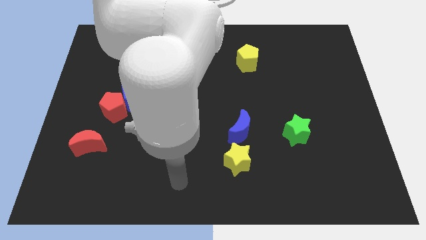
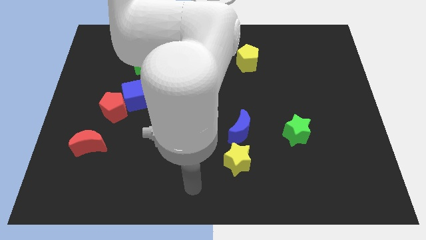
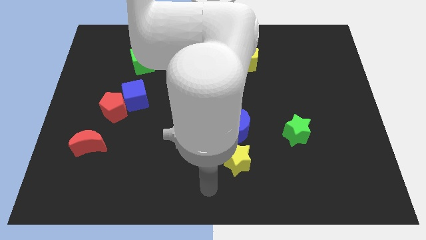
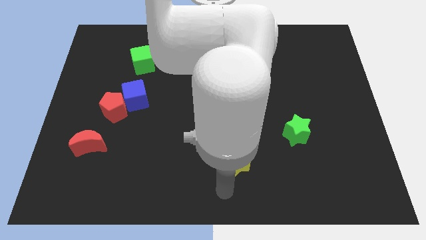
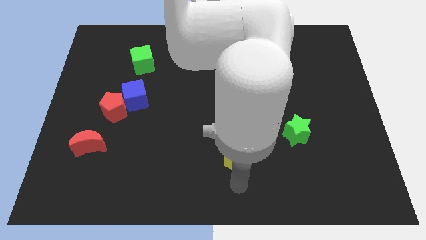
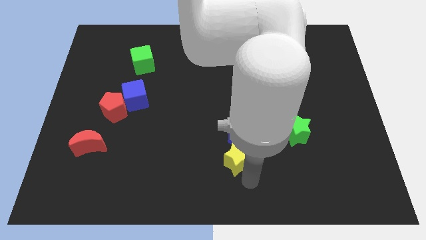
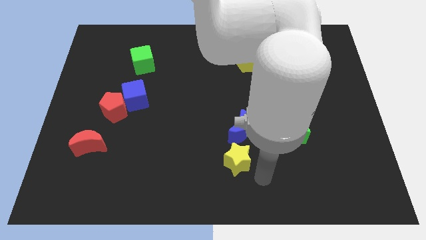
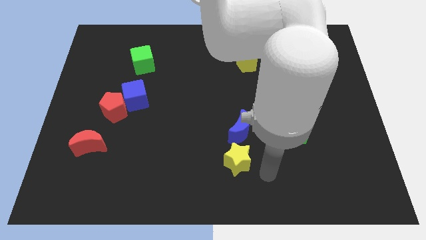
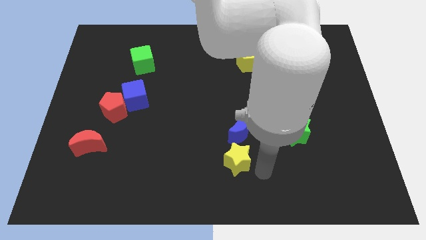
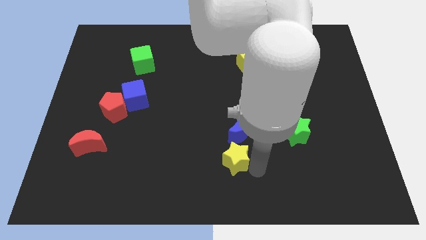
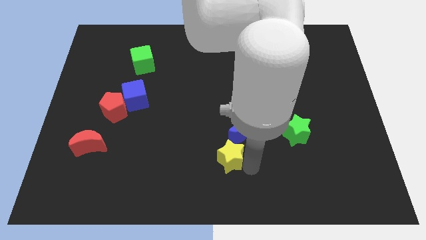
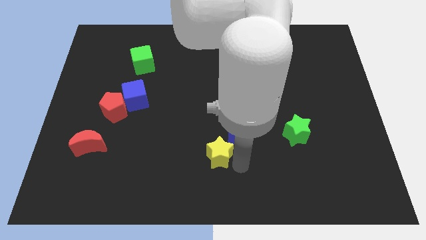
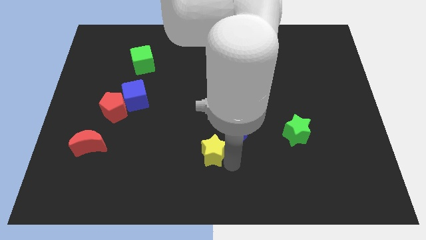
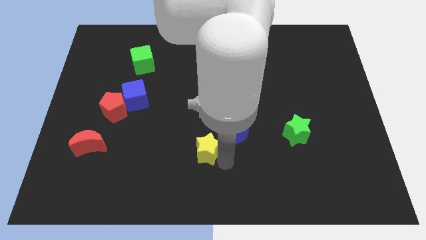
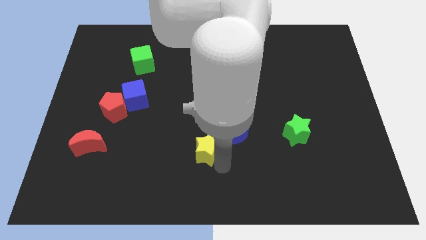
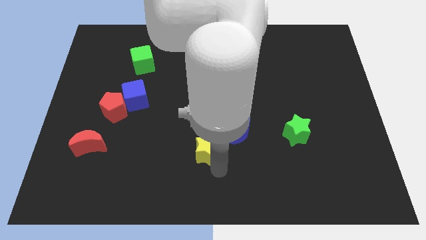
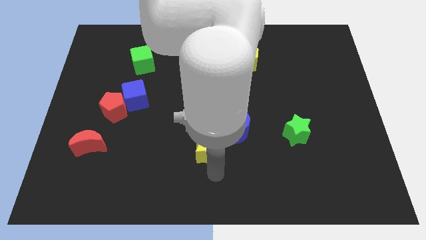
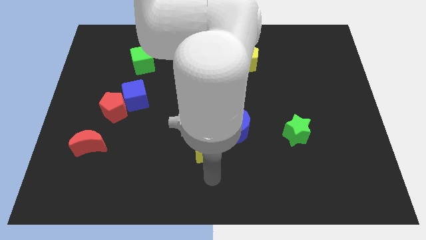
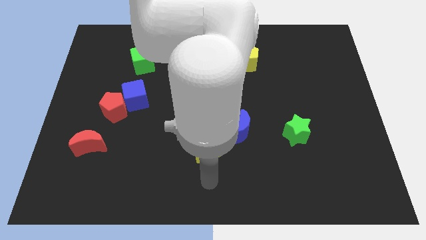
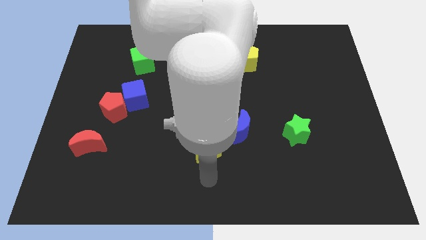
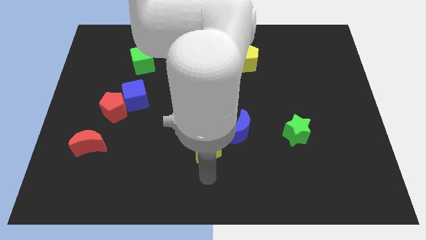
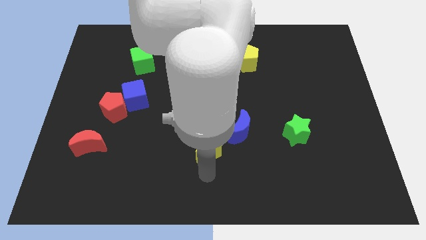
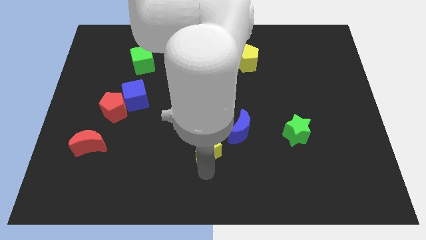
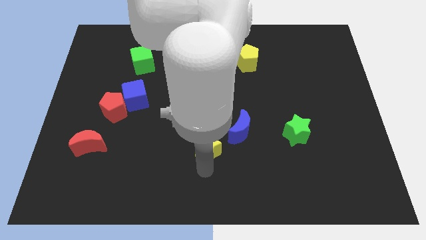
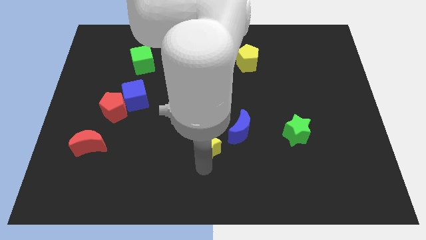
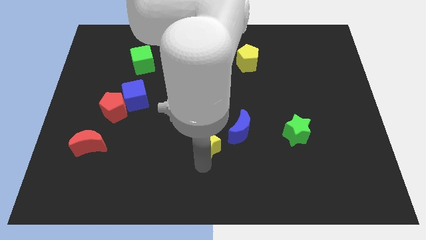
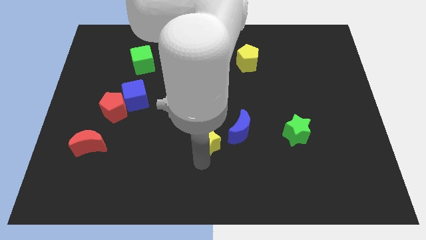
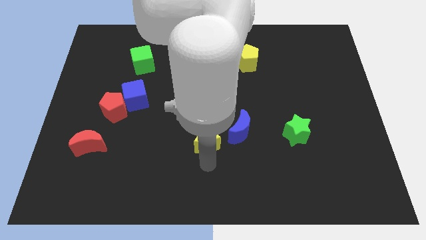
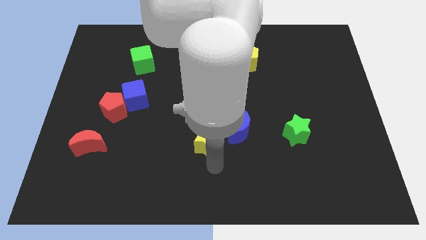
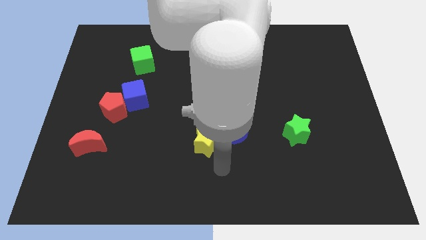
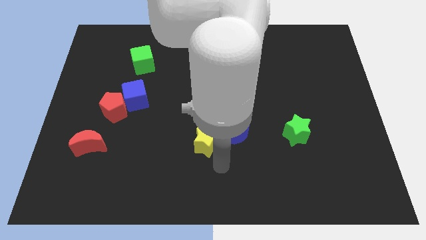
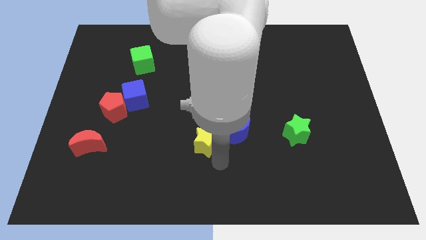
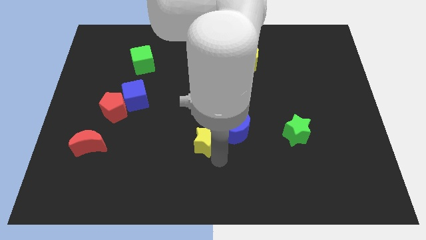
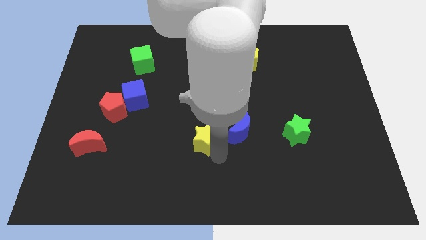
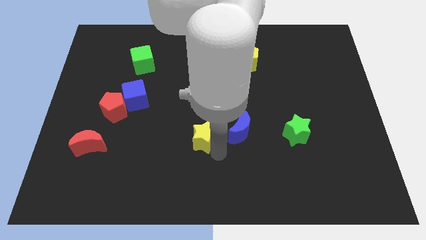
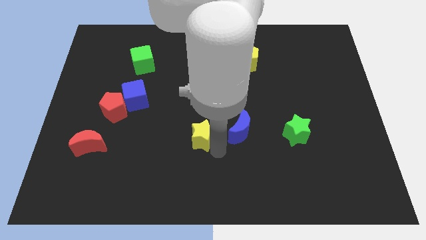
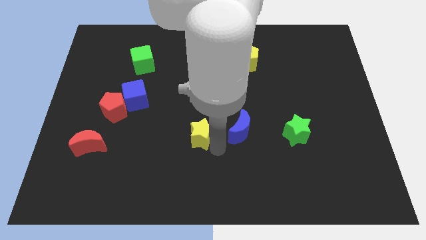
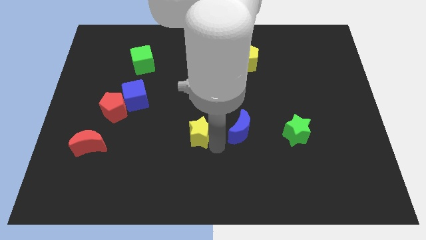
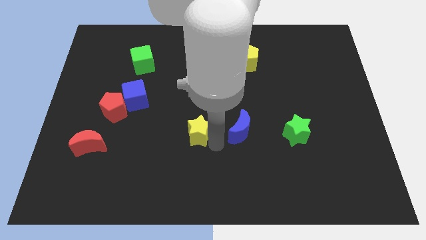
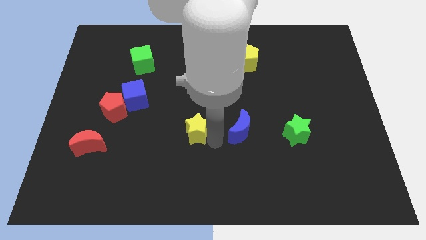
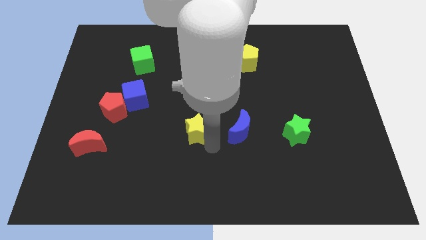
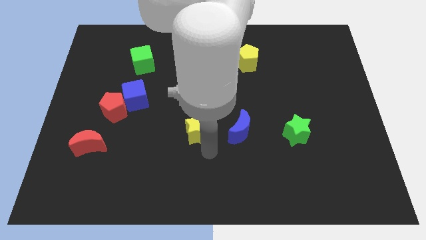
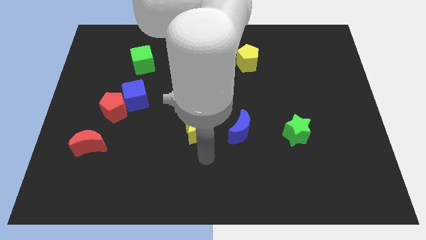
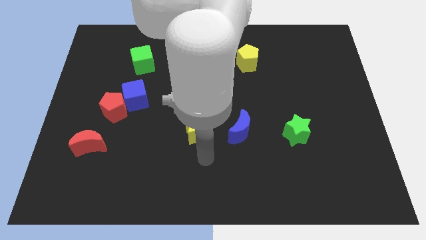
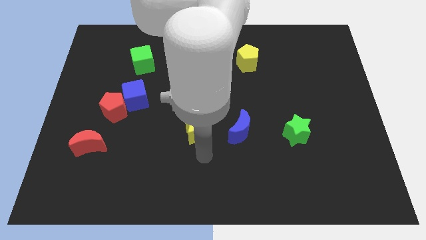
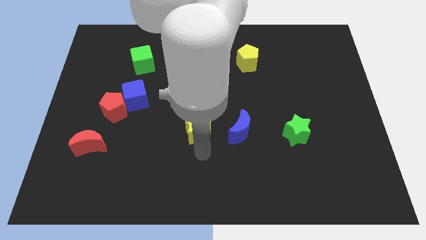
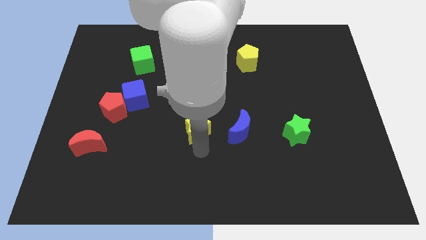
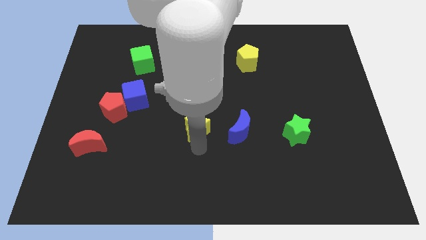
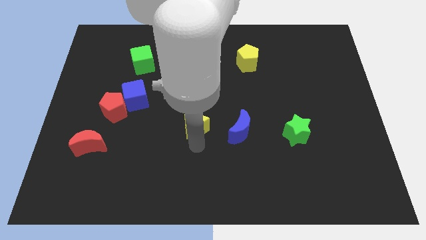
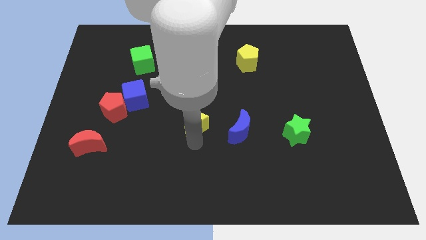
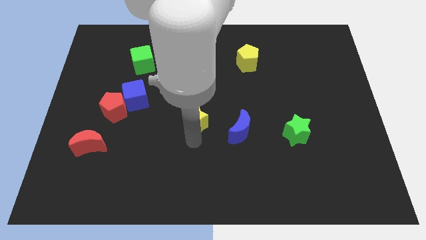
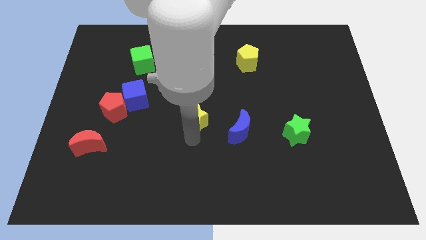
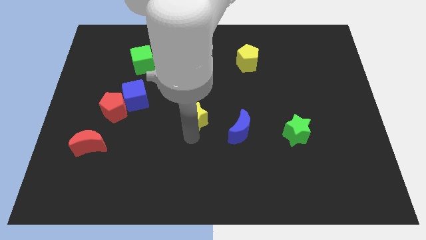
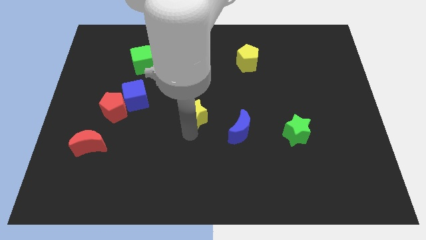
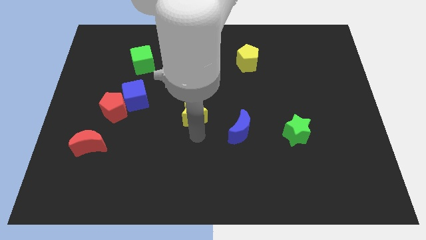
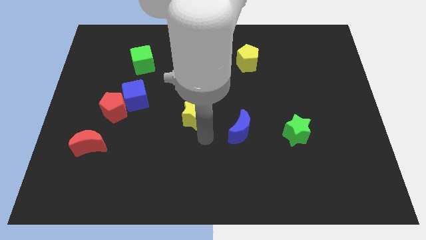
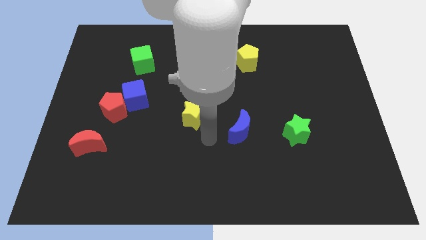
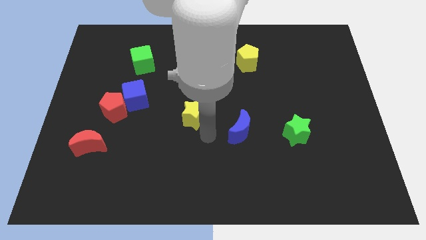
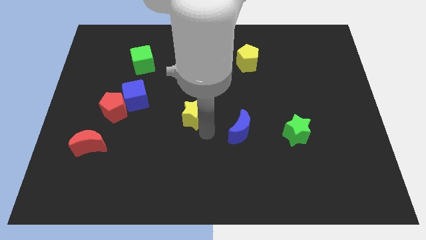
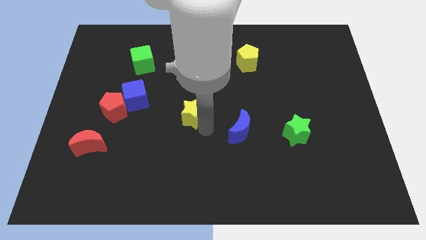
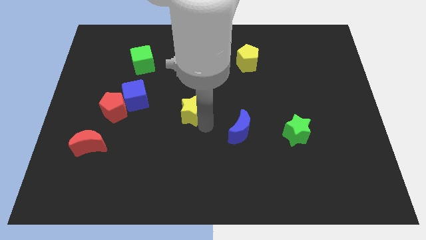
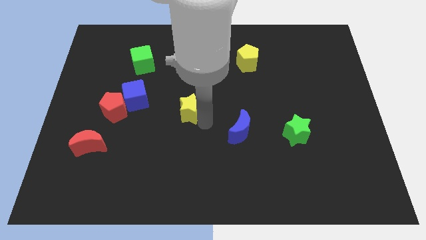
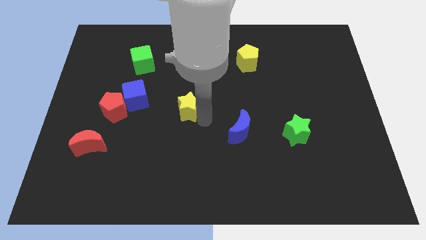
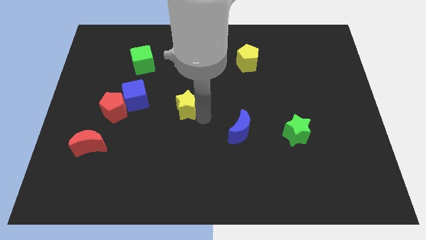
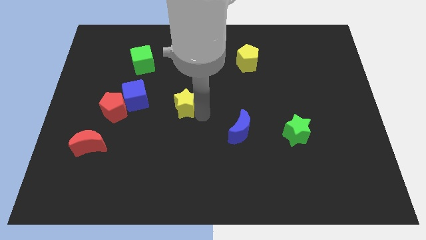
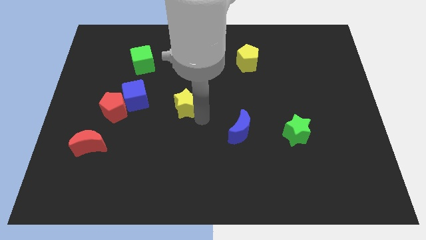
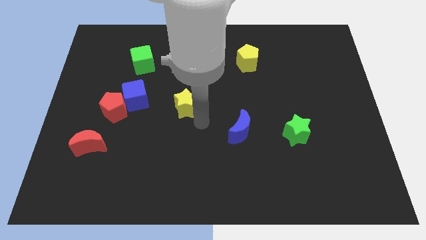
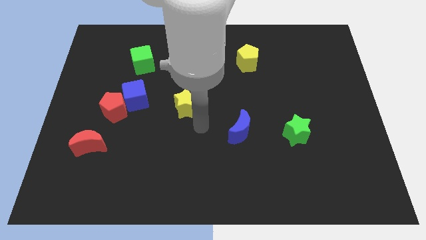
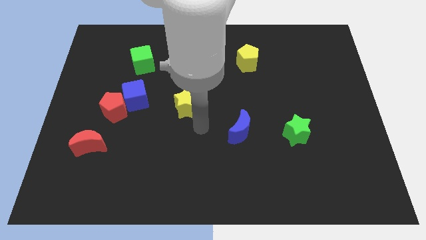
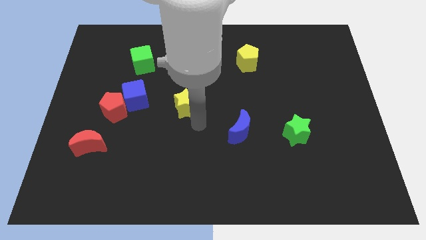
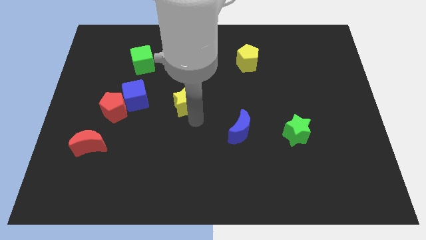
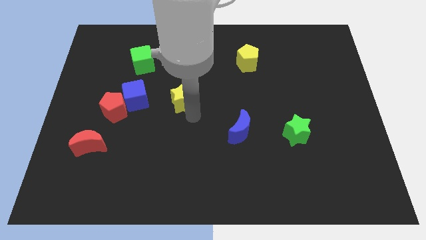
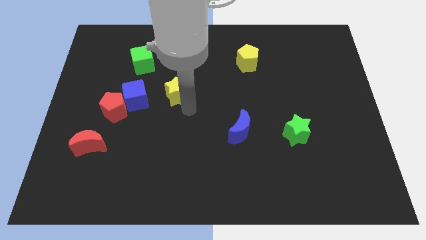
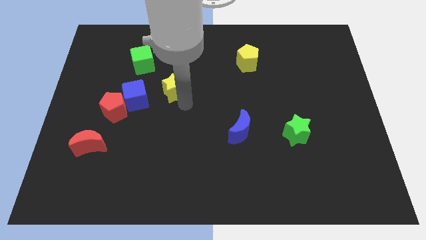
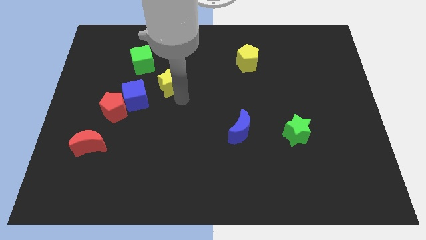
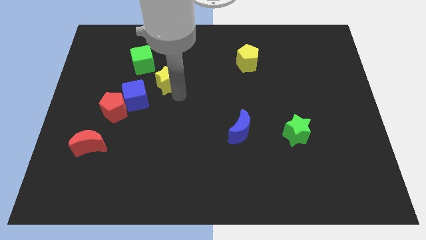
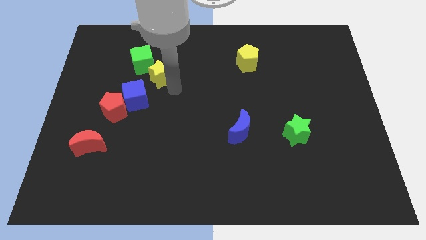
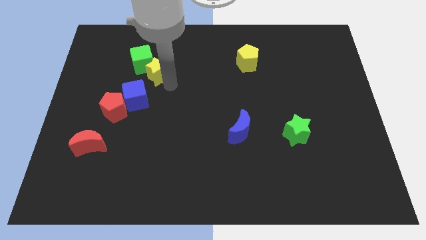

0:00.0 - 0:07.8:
put the yellow star towards the green cube
